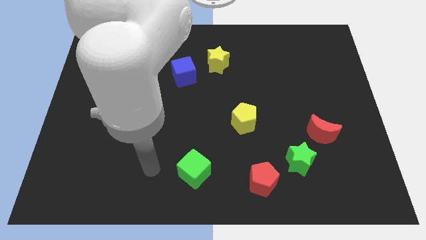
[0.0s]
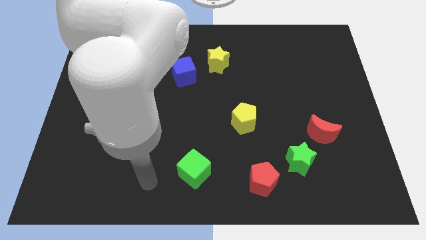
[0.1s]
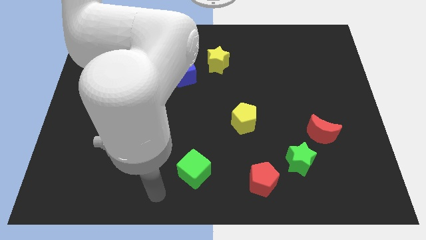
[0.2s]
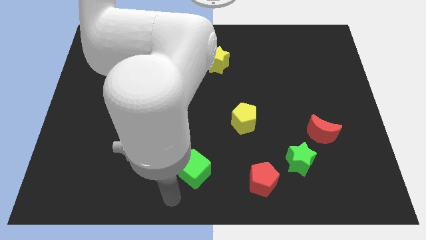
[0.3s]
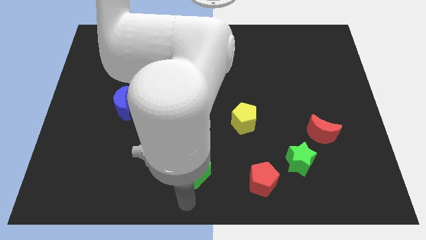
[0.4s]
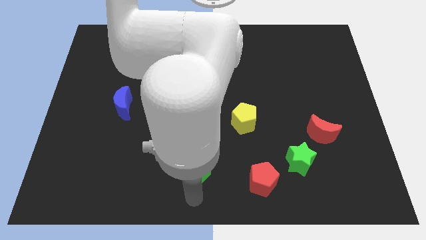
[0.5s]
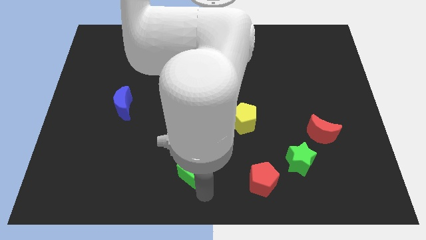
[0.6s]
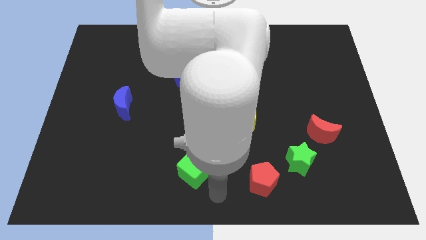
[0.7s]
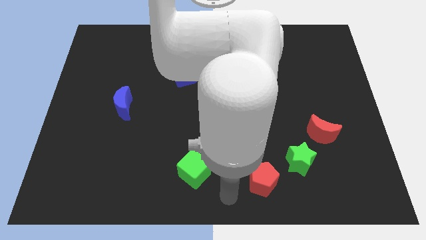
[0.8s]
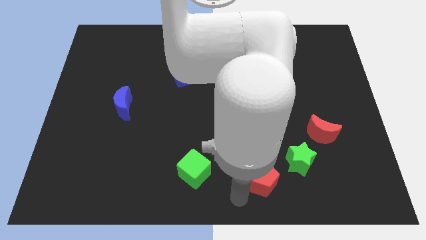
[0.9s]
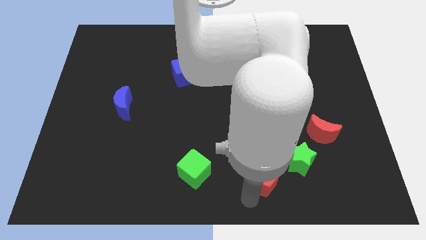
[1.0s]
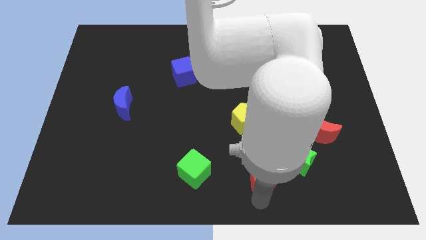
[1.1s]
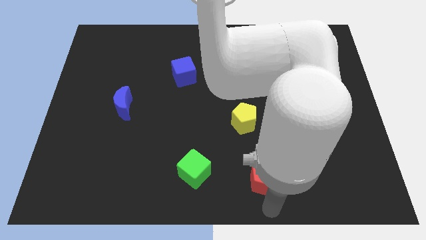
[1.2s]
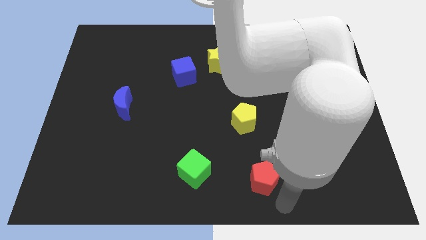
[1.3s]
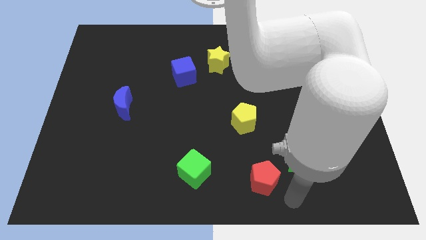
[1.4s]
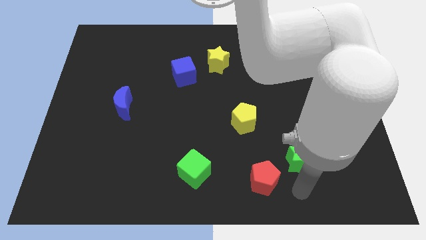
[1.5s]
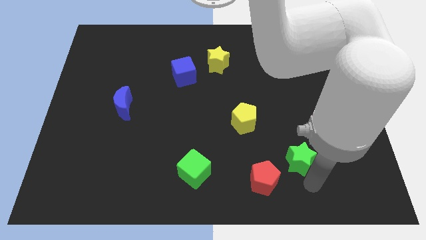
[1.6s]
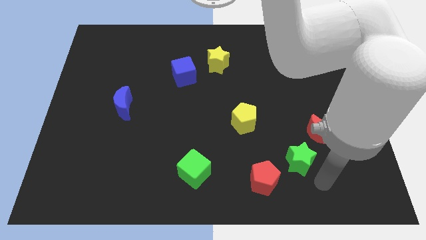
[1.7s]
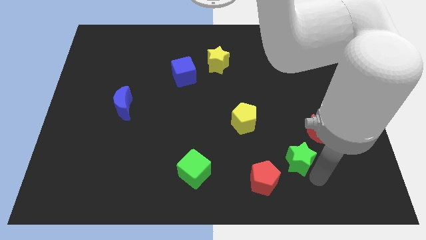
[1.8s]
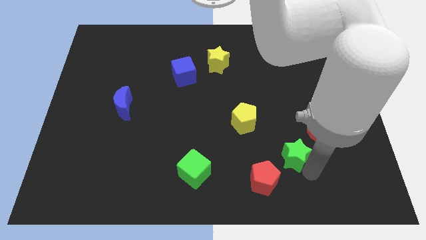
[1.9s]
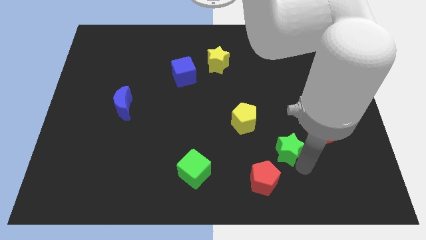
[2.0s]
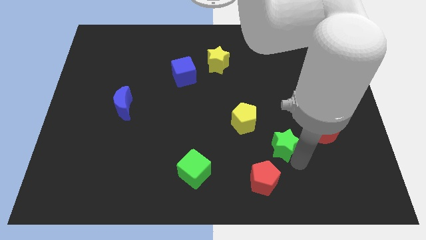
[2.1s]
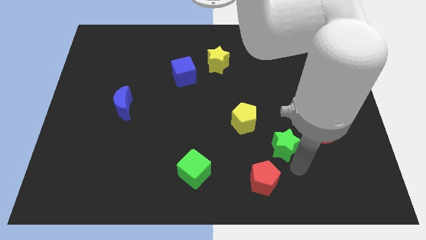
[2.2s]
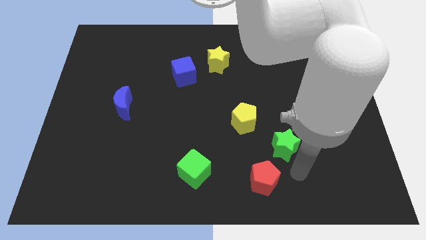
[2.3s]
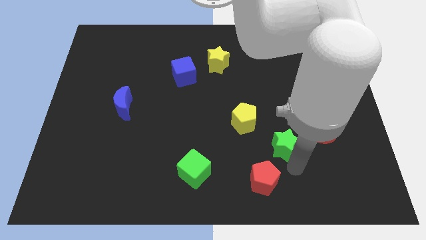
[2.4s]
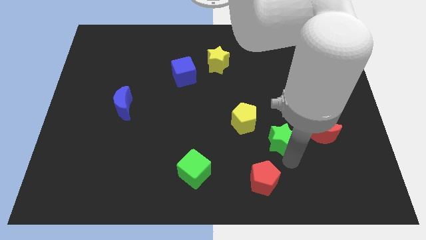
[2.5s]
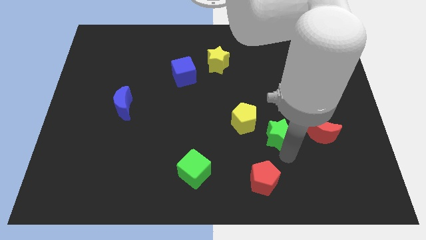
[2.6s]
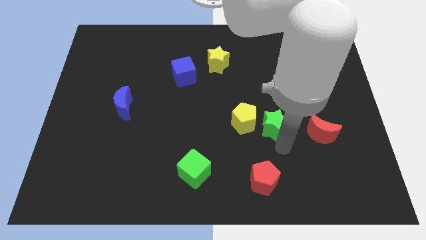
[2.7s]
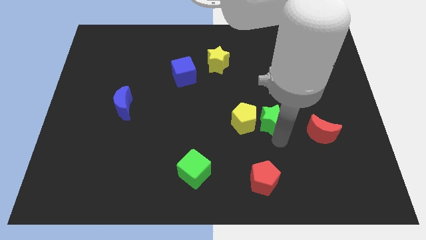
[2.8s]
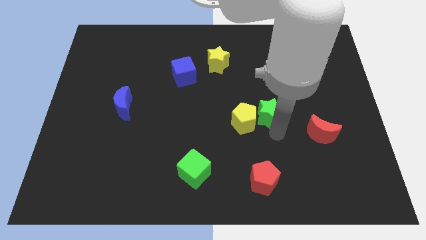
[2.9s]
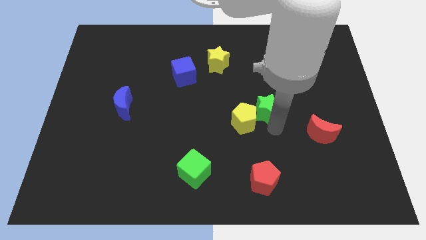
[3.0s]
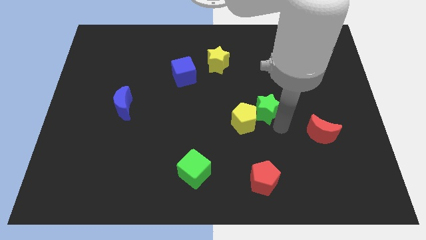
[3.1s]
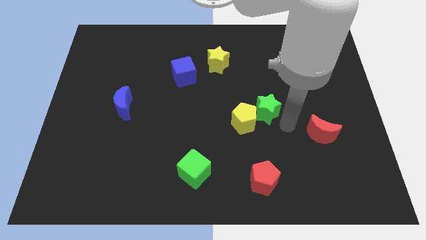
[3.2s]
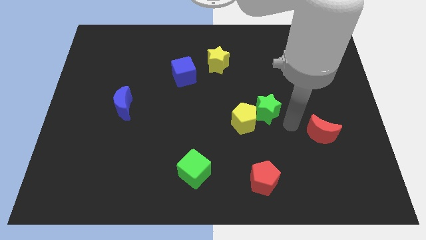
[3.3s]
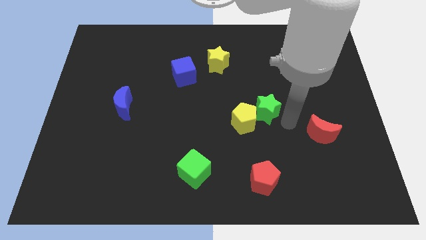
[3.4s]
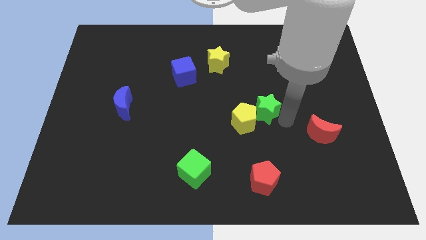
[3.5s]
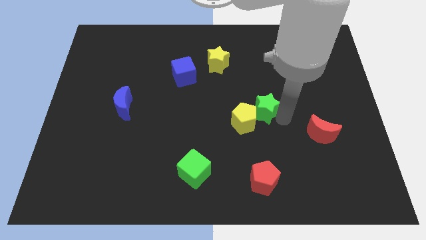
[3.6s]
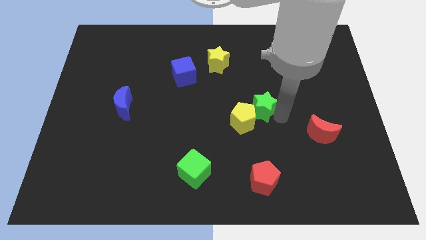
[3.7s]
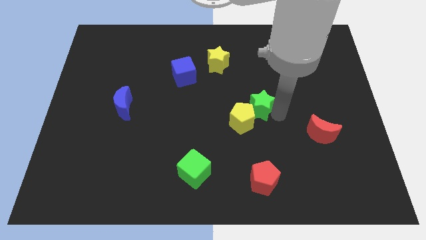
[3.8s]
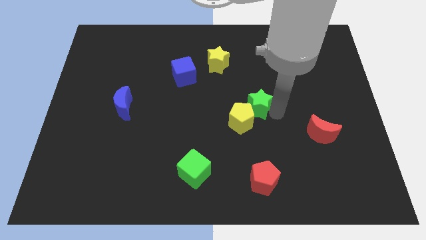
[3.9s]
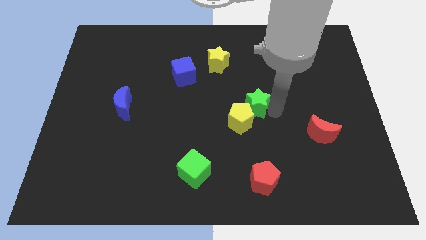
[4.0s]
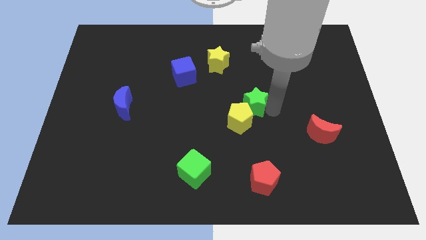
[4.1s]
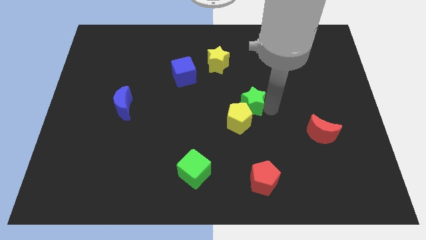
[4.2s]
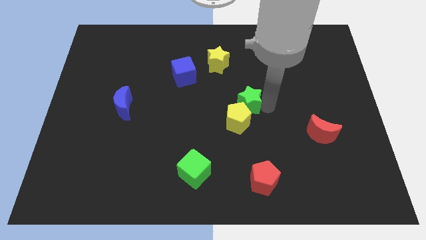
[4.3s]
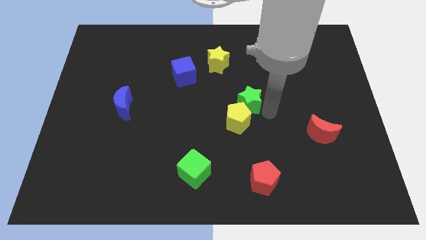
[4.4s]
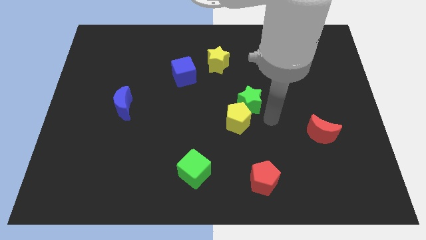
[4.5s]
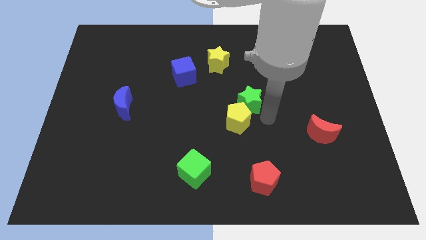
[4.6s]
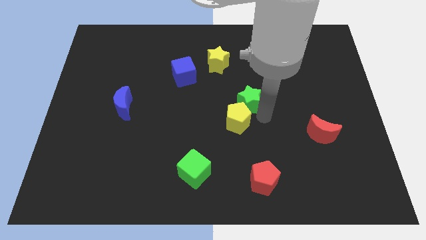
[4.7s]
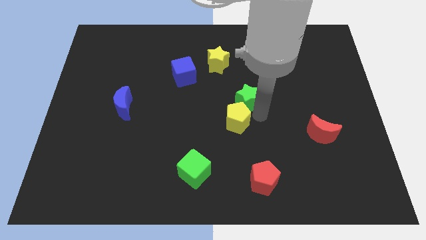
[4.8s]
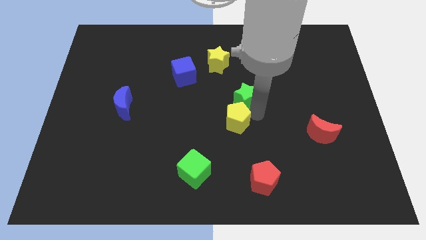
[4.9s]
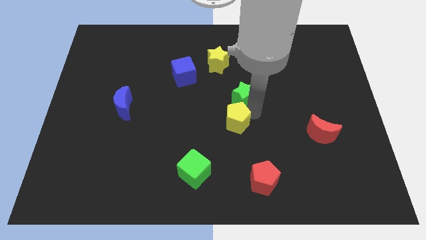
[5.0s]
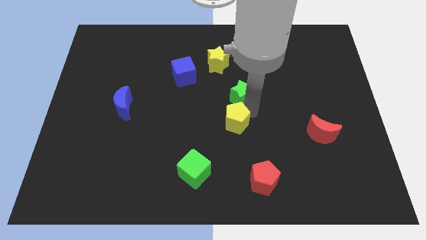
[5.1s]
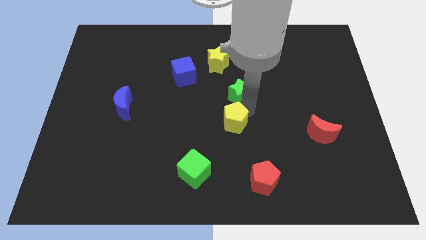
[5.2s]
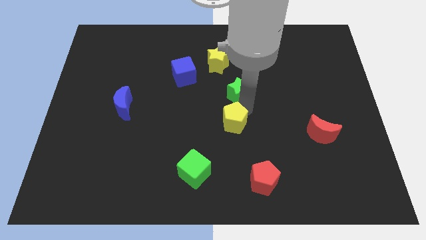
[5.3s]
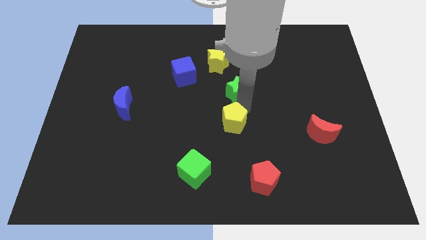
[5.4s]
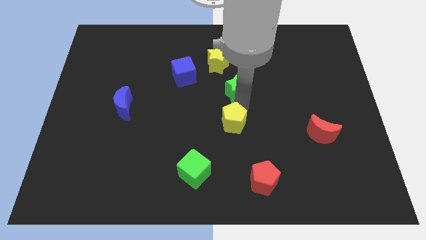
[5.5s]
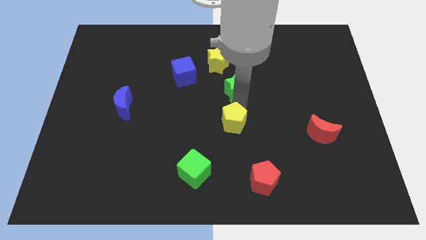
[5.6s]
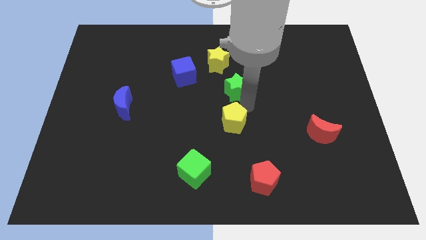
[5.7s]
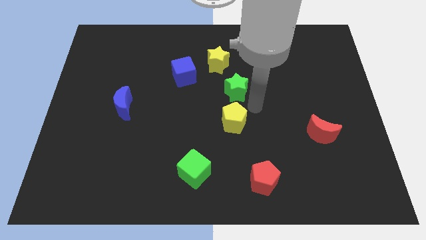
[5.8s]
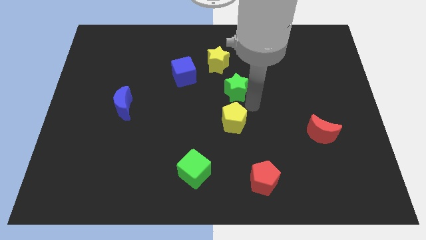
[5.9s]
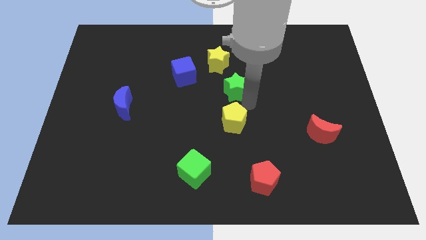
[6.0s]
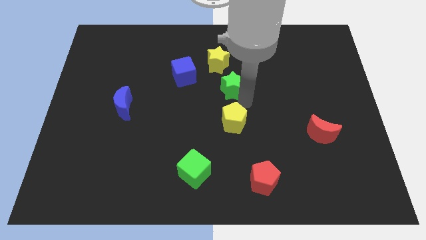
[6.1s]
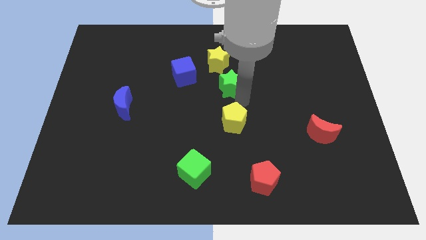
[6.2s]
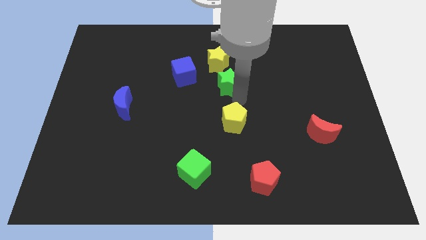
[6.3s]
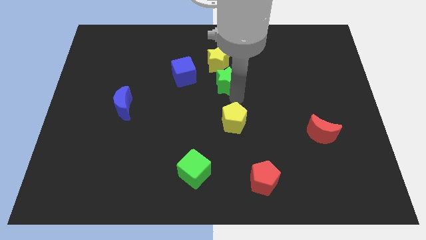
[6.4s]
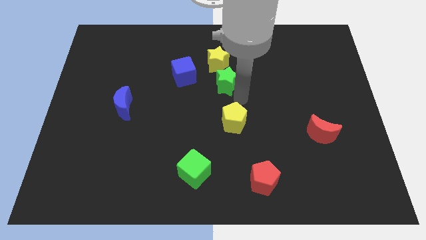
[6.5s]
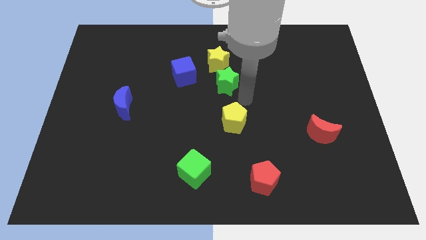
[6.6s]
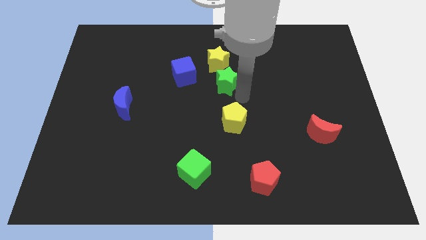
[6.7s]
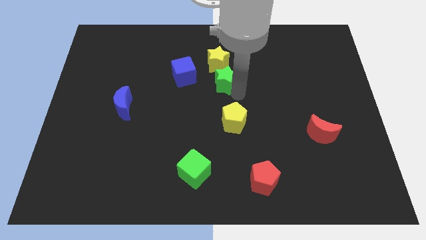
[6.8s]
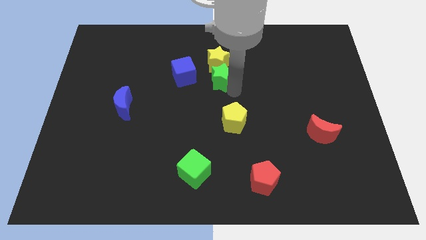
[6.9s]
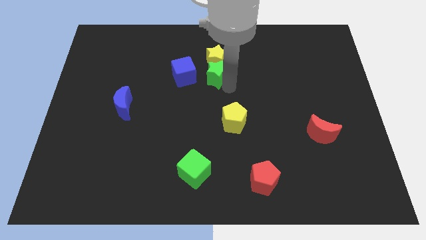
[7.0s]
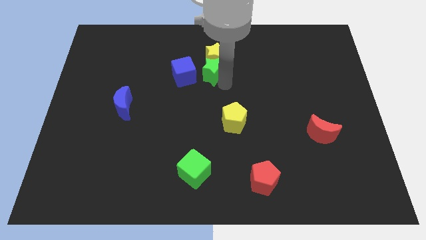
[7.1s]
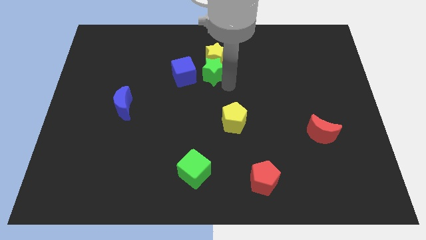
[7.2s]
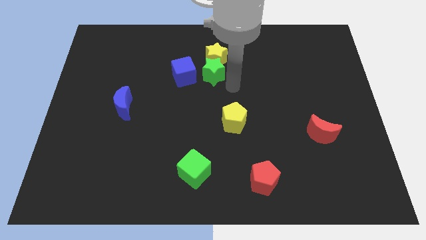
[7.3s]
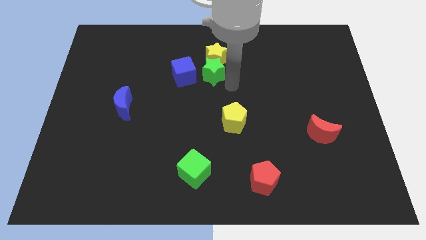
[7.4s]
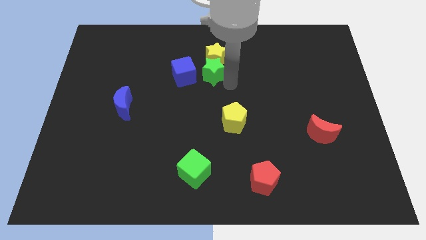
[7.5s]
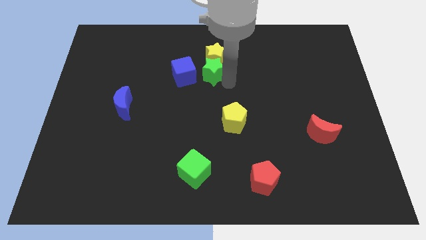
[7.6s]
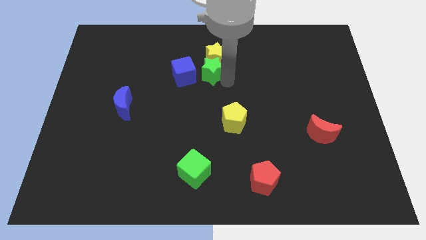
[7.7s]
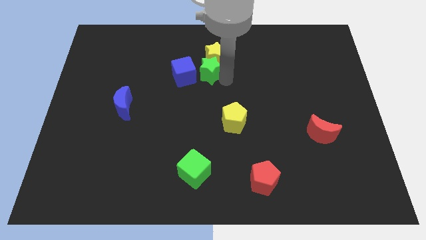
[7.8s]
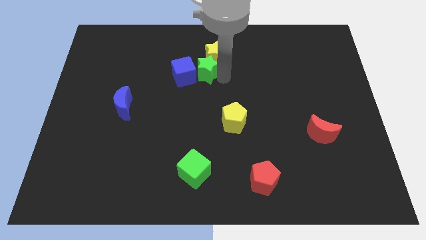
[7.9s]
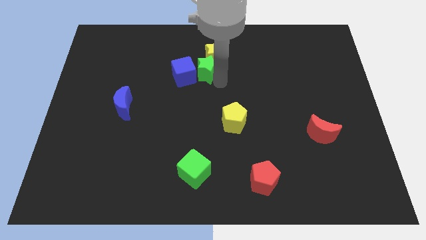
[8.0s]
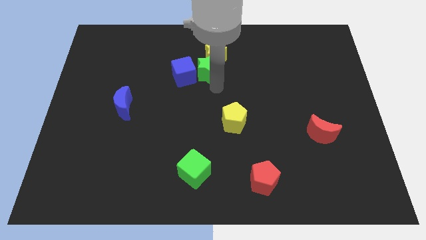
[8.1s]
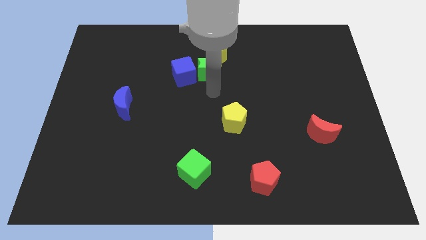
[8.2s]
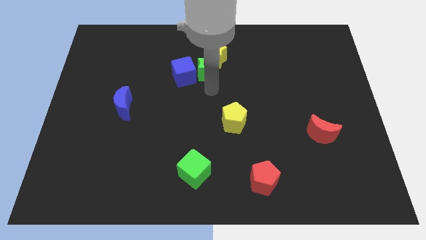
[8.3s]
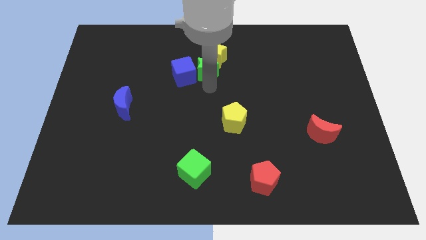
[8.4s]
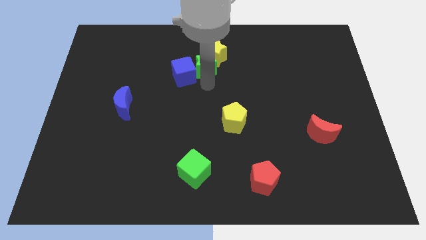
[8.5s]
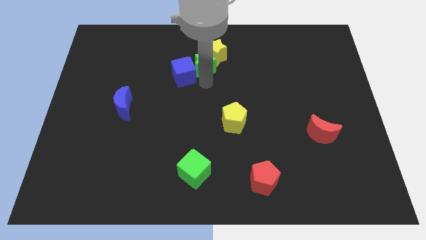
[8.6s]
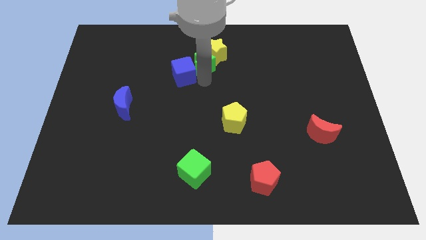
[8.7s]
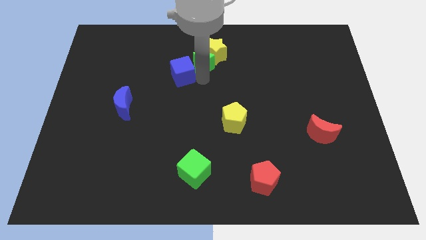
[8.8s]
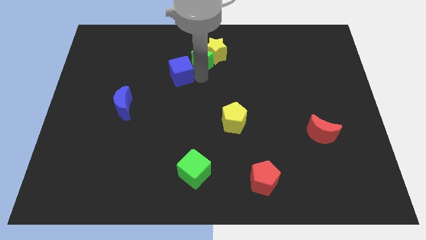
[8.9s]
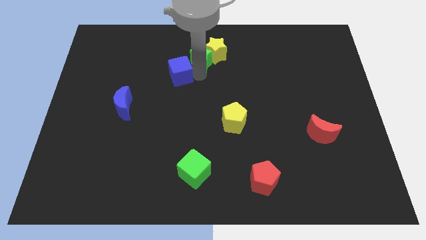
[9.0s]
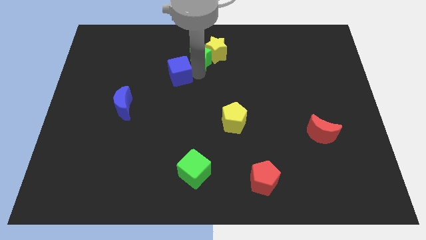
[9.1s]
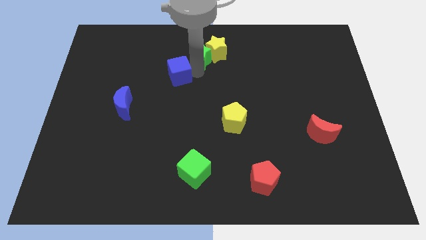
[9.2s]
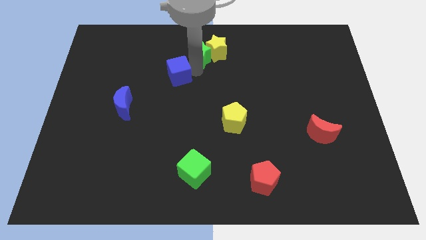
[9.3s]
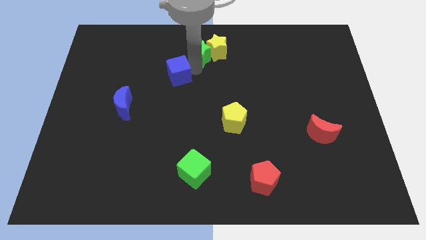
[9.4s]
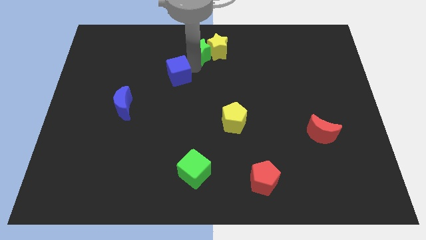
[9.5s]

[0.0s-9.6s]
put the green star to the towards your base
